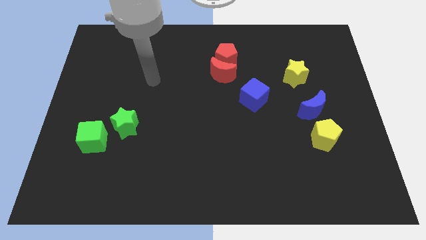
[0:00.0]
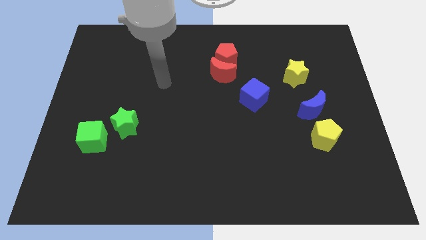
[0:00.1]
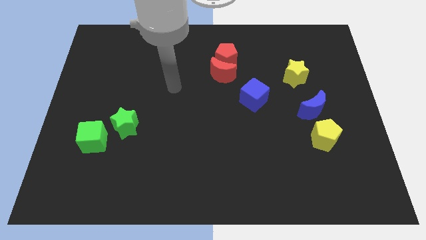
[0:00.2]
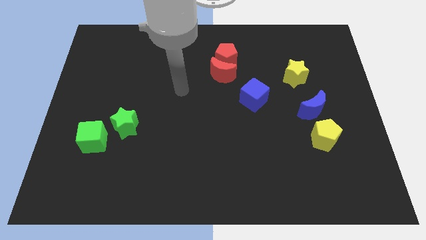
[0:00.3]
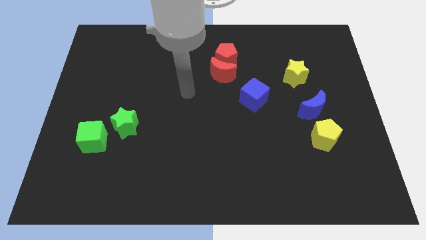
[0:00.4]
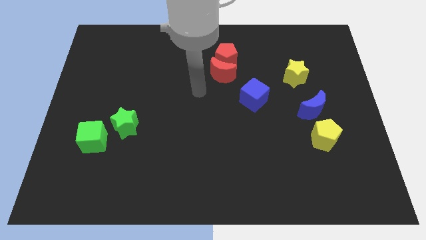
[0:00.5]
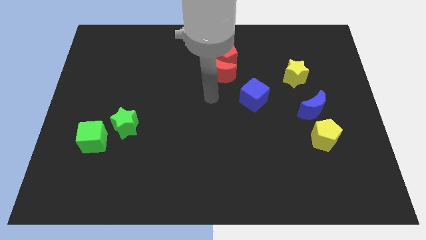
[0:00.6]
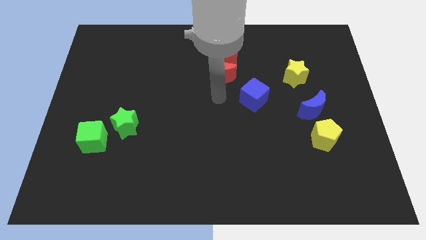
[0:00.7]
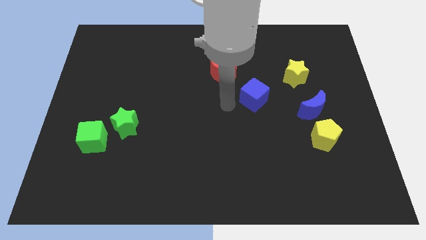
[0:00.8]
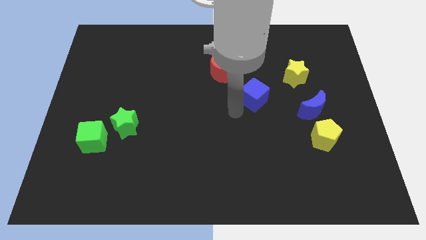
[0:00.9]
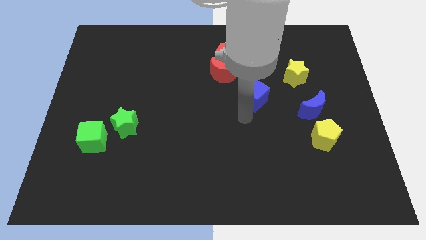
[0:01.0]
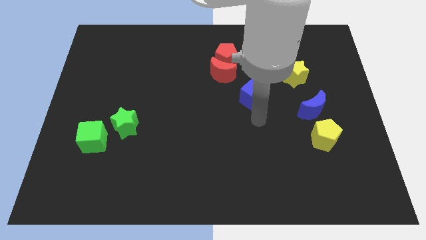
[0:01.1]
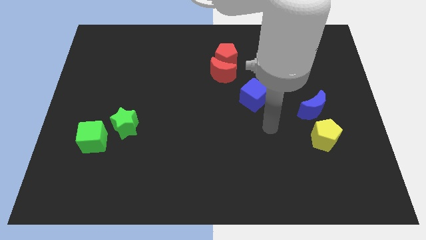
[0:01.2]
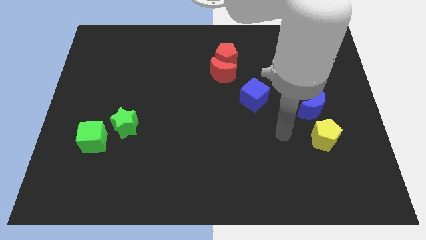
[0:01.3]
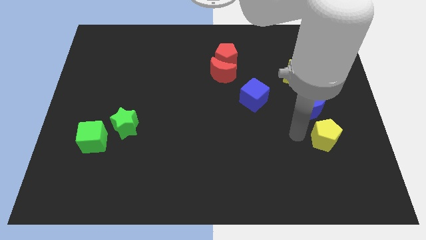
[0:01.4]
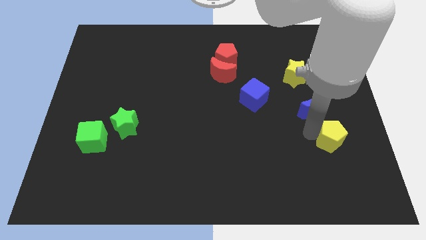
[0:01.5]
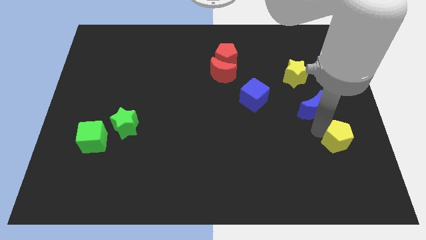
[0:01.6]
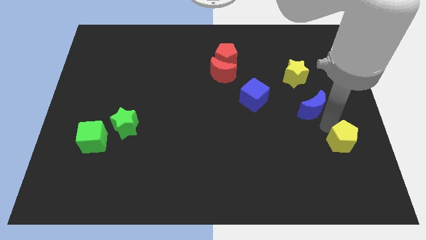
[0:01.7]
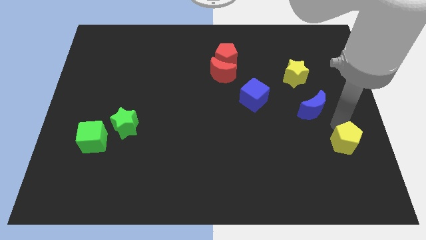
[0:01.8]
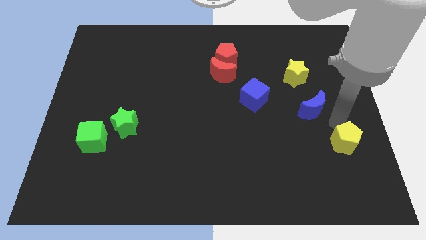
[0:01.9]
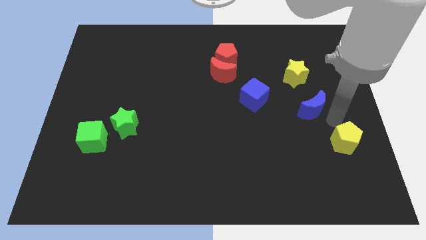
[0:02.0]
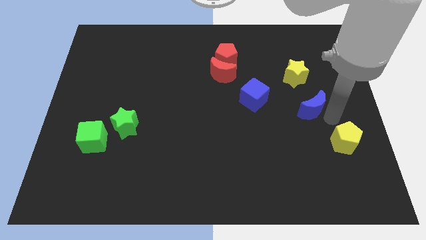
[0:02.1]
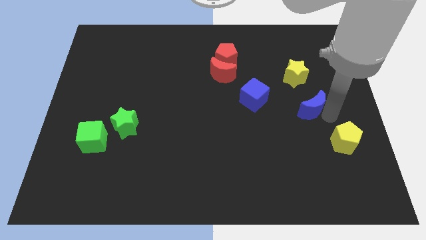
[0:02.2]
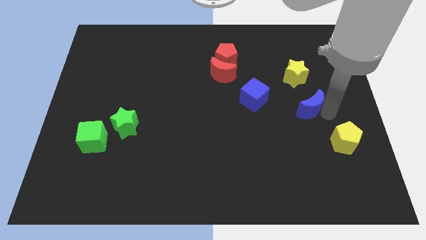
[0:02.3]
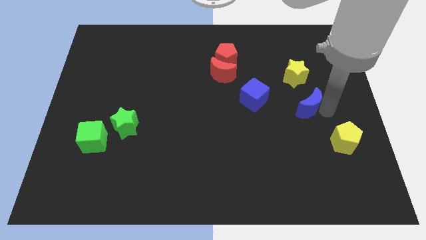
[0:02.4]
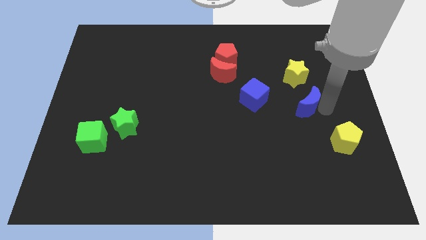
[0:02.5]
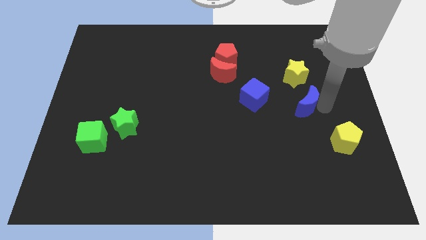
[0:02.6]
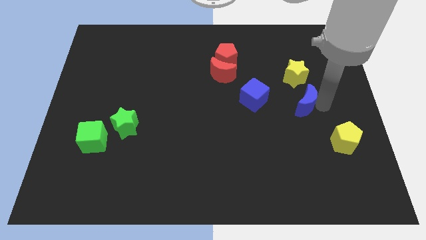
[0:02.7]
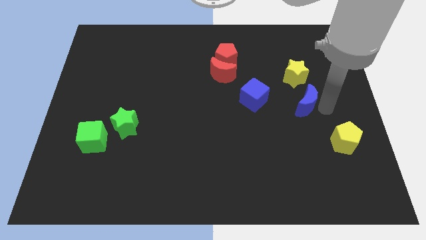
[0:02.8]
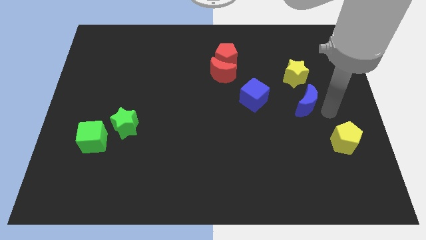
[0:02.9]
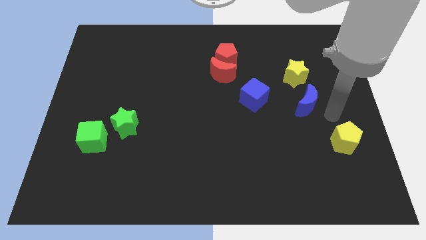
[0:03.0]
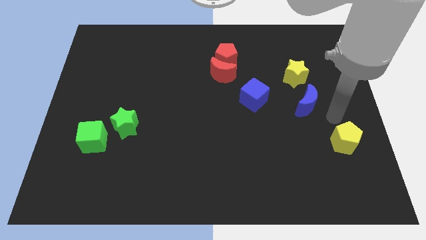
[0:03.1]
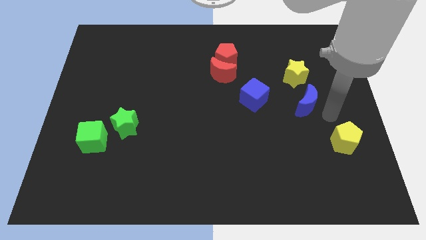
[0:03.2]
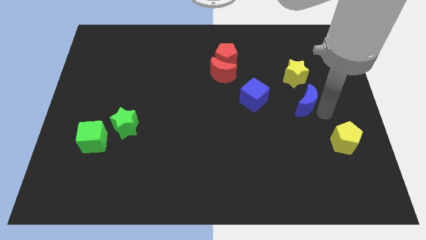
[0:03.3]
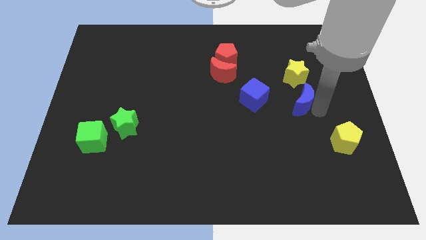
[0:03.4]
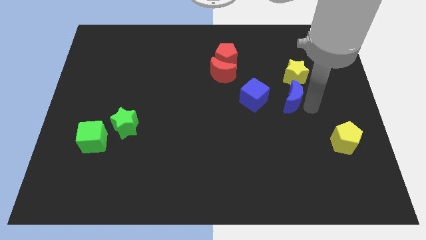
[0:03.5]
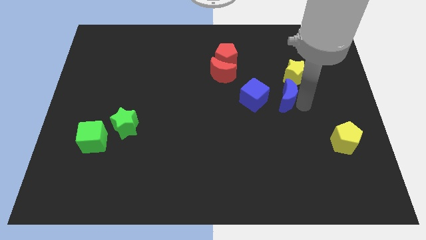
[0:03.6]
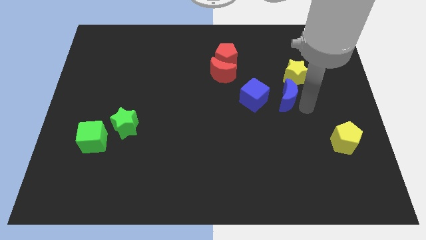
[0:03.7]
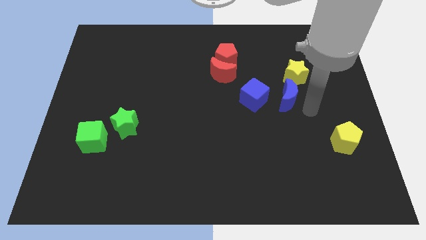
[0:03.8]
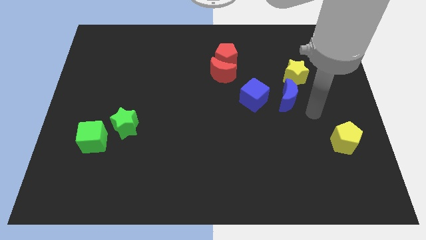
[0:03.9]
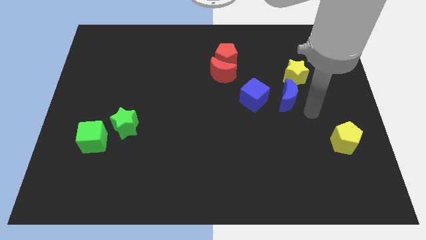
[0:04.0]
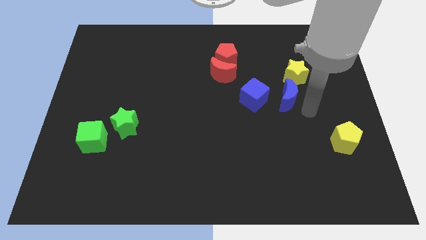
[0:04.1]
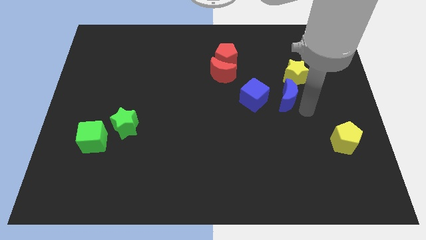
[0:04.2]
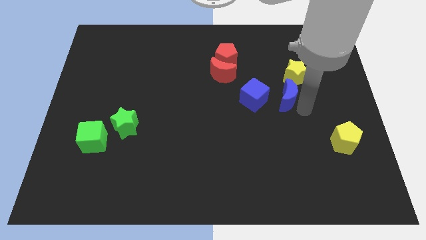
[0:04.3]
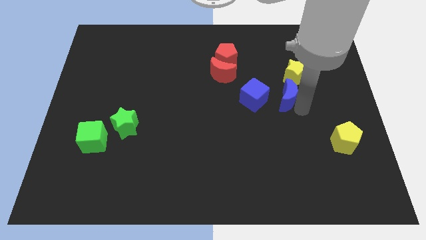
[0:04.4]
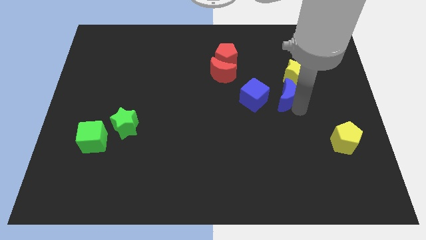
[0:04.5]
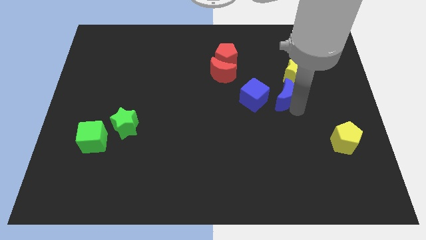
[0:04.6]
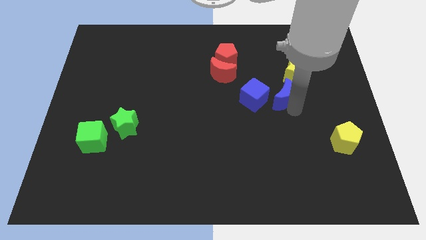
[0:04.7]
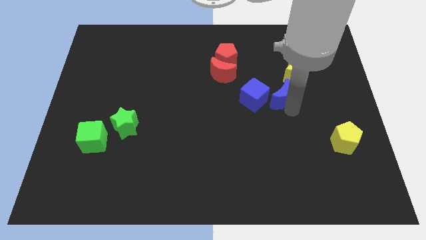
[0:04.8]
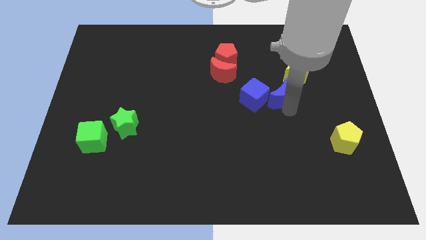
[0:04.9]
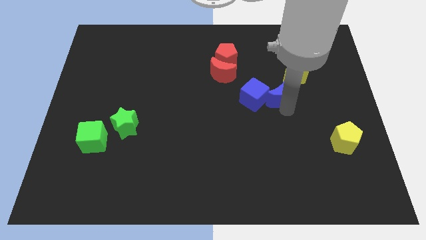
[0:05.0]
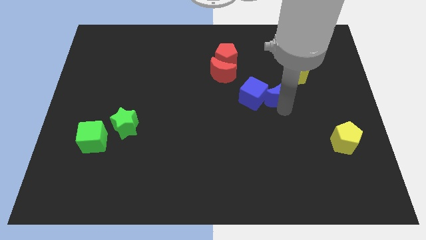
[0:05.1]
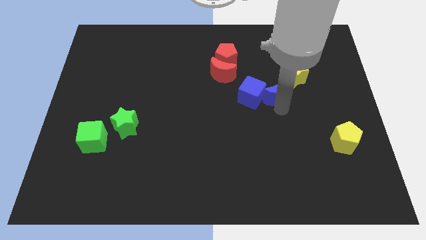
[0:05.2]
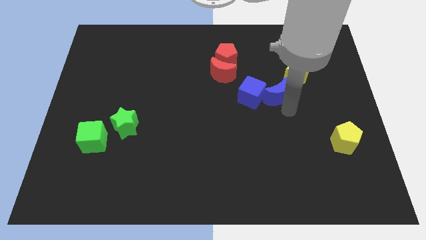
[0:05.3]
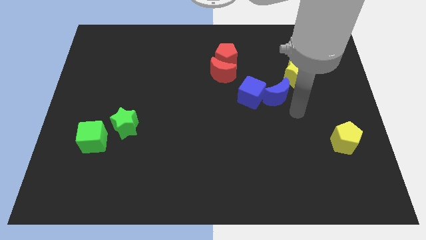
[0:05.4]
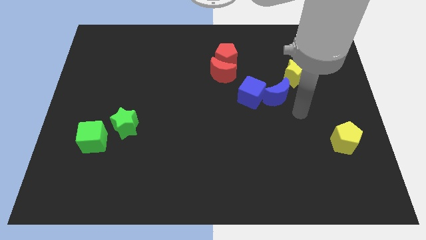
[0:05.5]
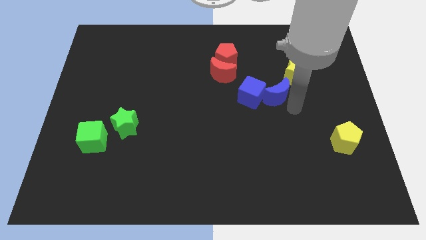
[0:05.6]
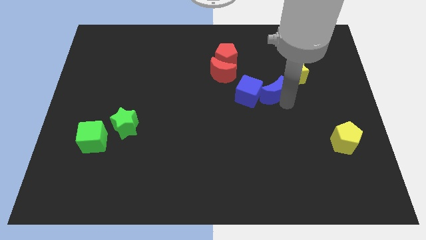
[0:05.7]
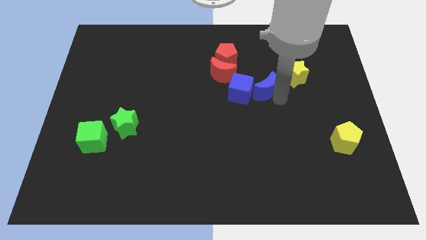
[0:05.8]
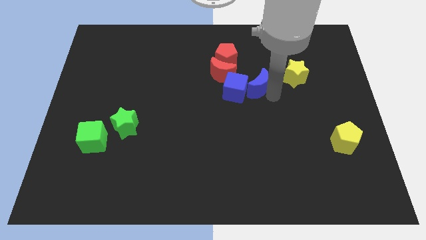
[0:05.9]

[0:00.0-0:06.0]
slide the blue moon to the bottom right side of the red pentagon

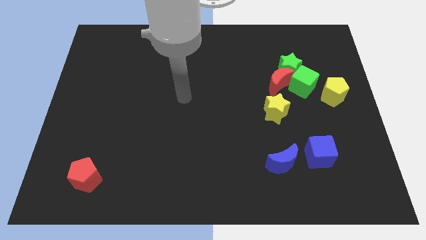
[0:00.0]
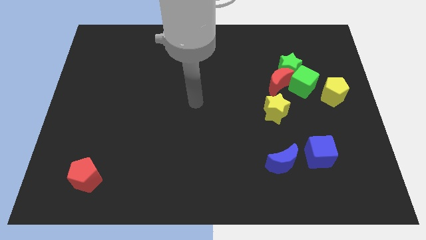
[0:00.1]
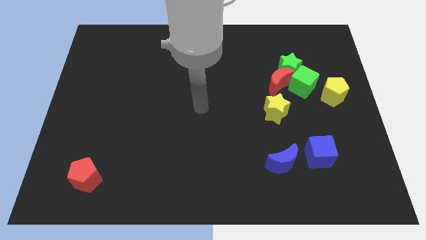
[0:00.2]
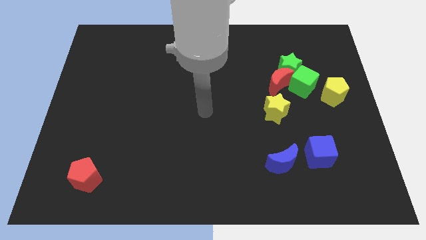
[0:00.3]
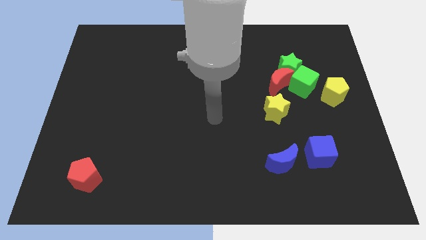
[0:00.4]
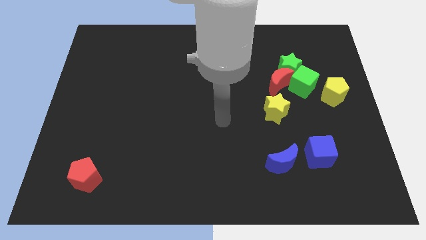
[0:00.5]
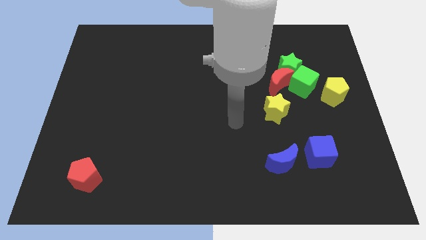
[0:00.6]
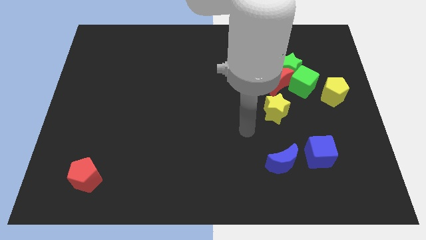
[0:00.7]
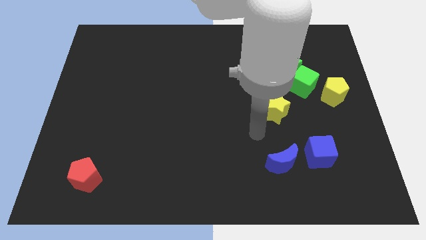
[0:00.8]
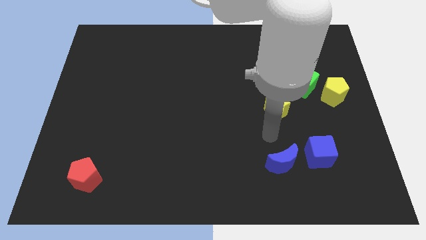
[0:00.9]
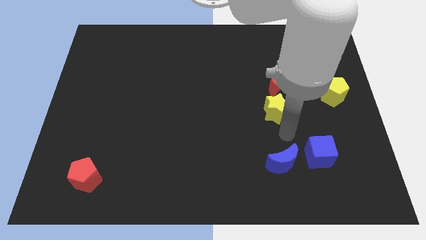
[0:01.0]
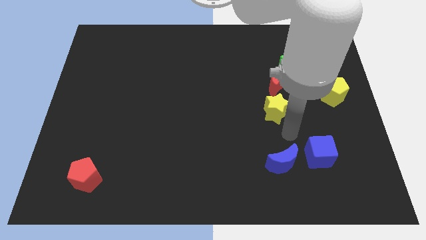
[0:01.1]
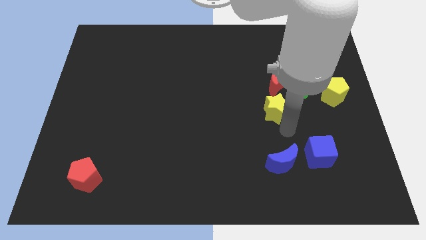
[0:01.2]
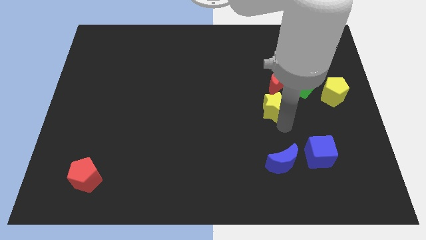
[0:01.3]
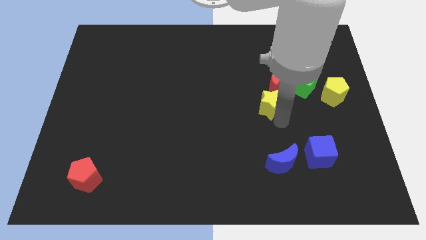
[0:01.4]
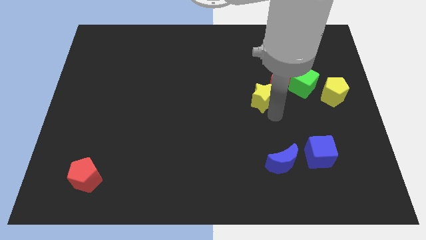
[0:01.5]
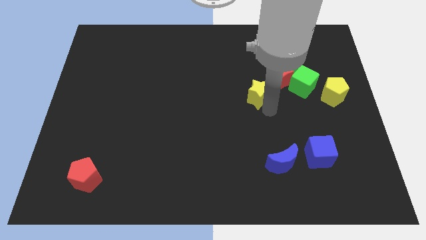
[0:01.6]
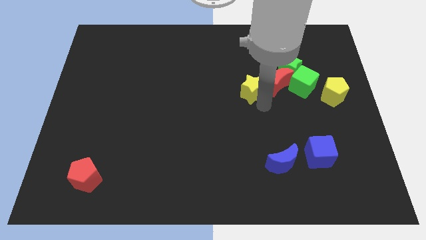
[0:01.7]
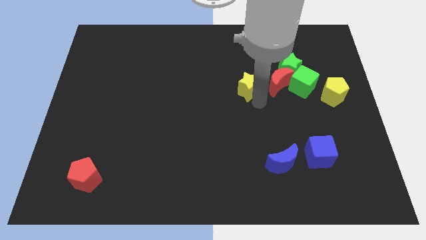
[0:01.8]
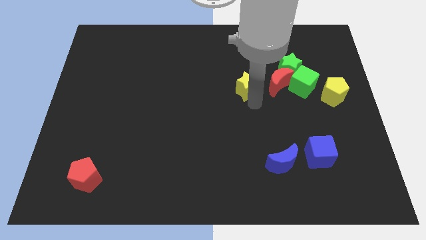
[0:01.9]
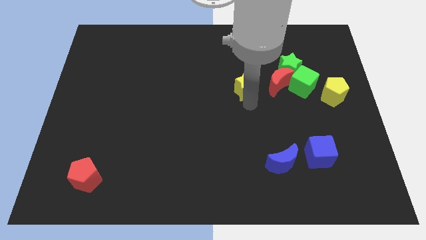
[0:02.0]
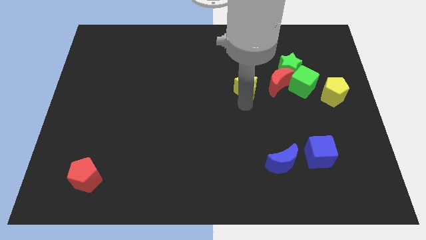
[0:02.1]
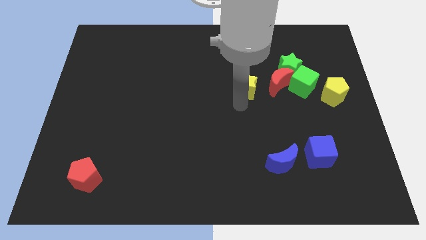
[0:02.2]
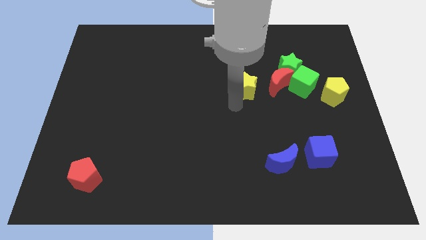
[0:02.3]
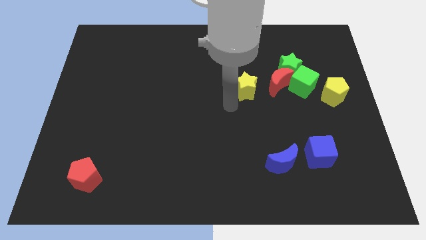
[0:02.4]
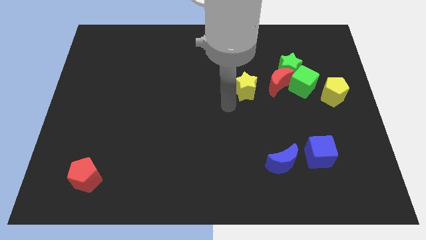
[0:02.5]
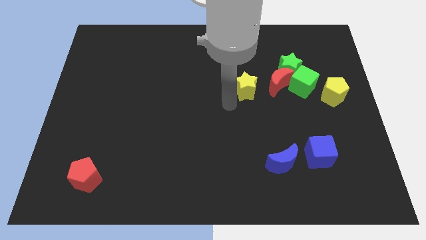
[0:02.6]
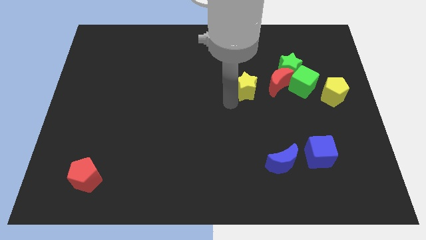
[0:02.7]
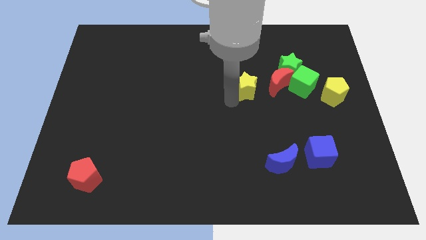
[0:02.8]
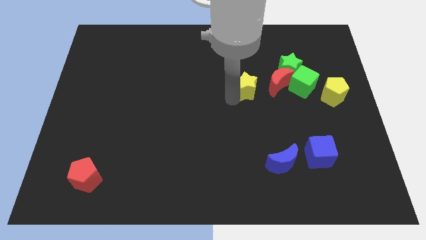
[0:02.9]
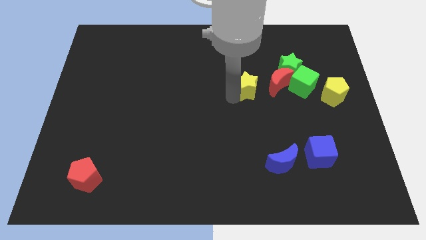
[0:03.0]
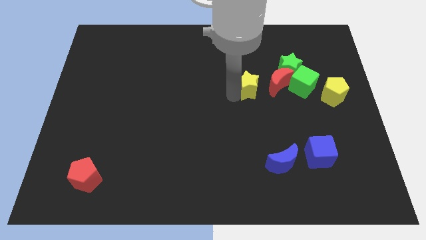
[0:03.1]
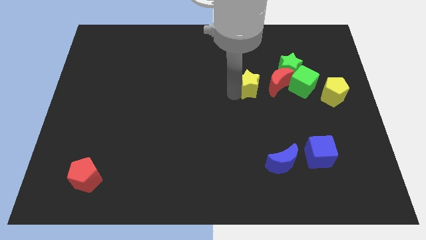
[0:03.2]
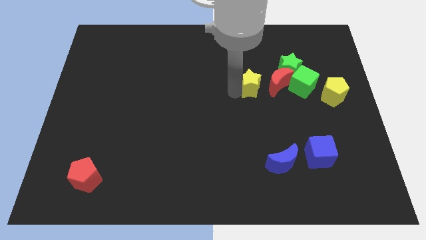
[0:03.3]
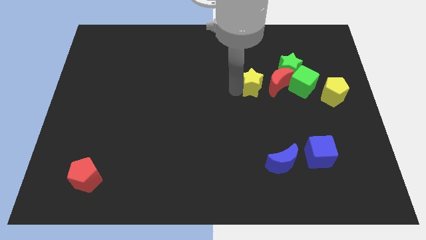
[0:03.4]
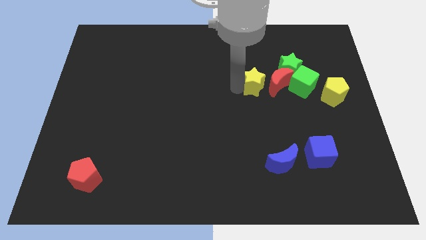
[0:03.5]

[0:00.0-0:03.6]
put the yellow star diagonally up and to the left of the red moon
